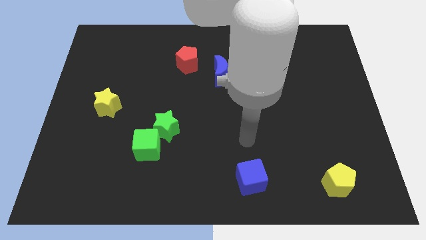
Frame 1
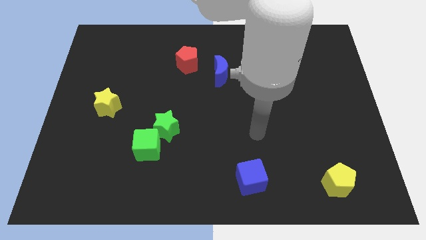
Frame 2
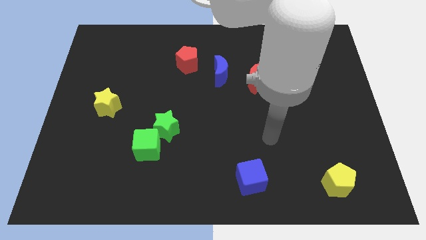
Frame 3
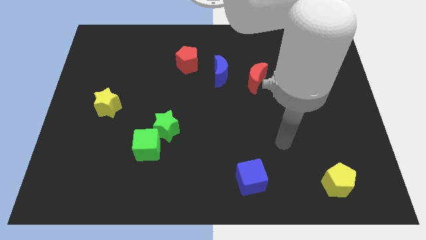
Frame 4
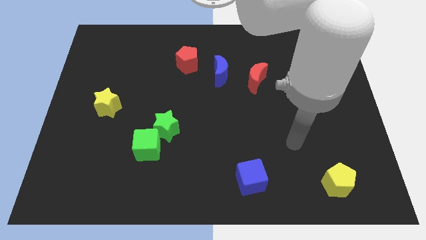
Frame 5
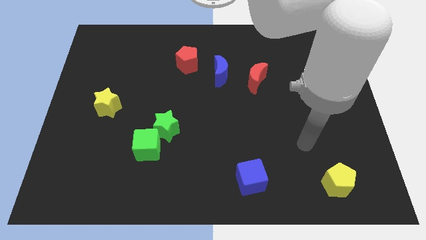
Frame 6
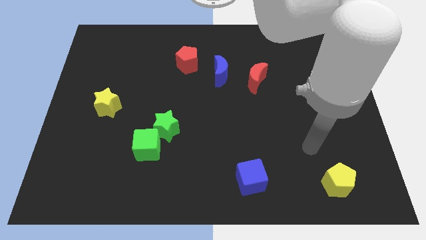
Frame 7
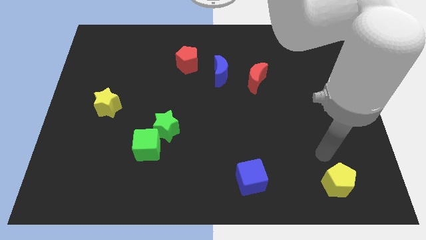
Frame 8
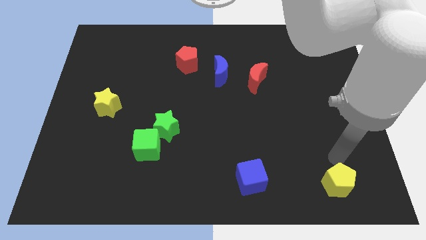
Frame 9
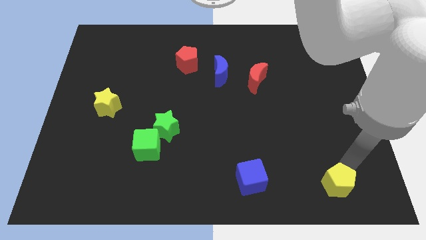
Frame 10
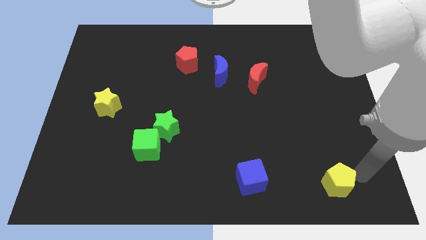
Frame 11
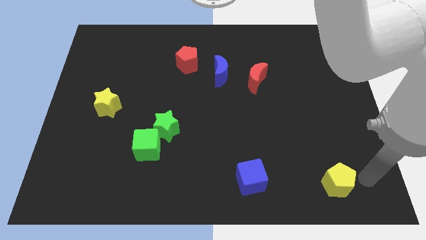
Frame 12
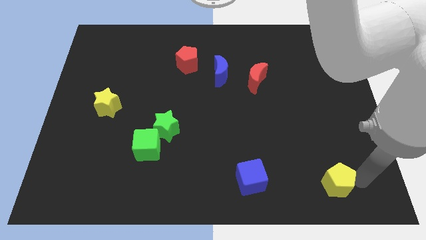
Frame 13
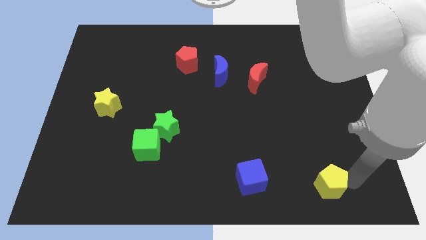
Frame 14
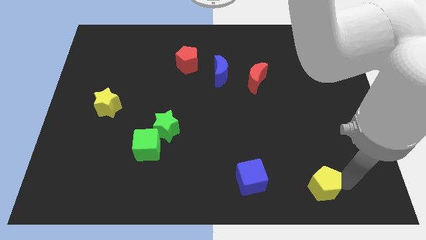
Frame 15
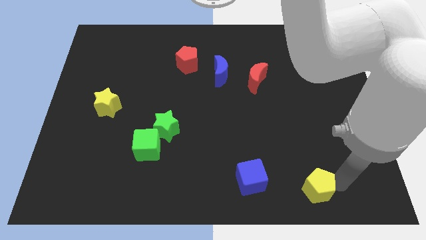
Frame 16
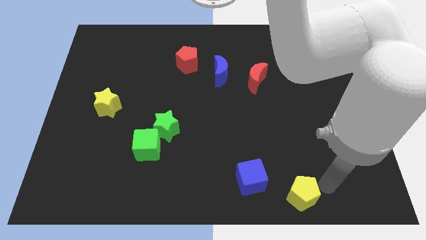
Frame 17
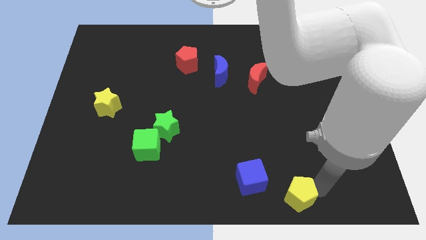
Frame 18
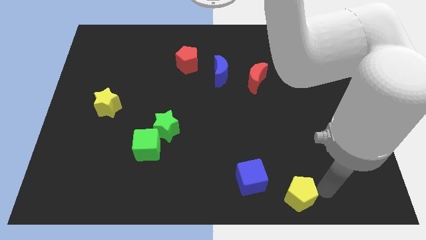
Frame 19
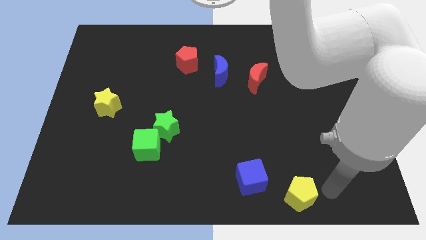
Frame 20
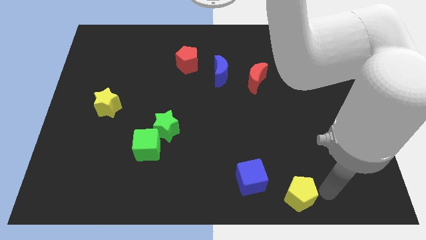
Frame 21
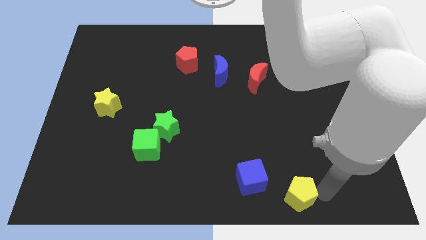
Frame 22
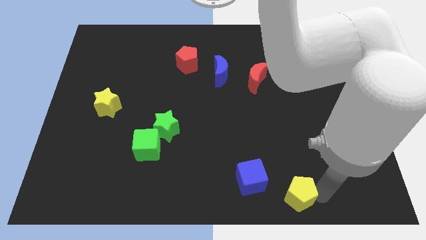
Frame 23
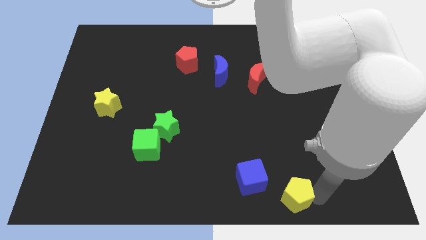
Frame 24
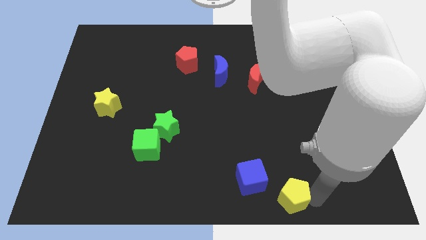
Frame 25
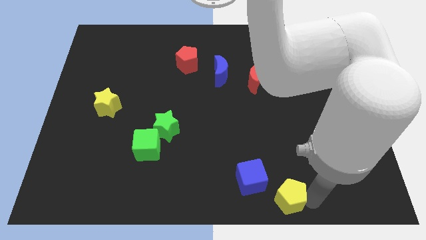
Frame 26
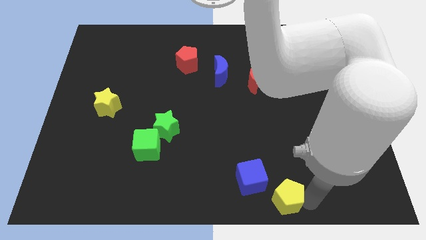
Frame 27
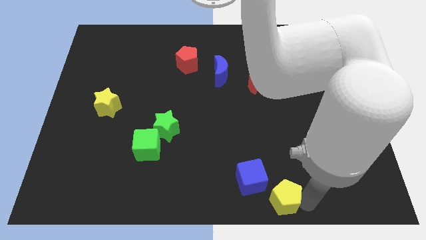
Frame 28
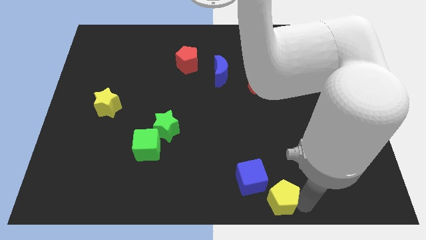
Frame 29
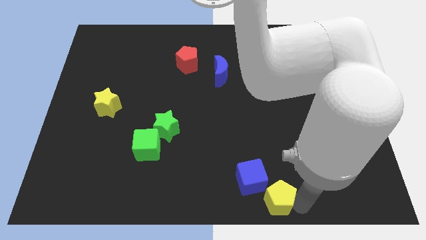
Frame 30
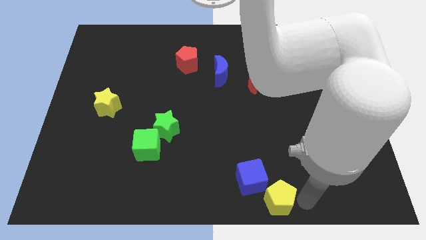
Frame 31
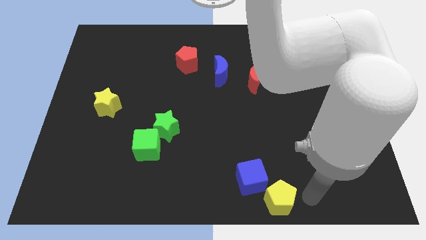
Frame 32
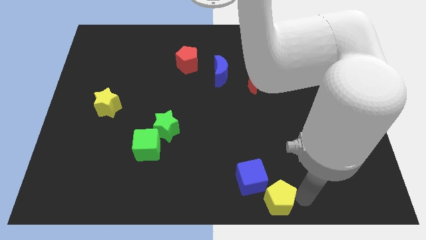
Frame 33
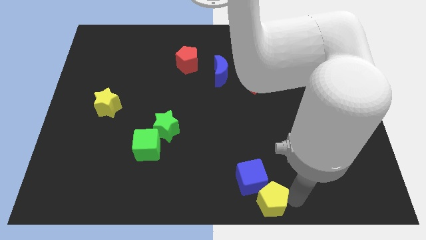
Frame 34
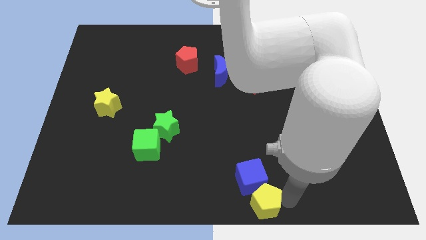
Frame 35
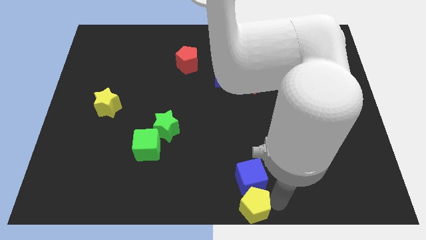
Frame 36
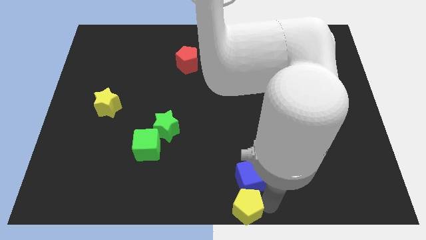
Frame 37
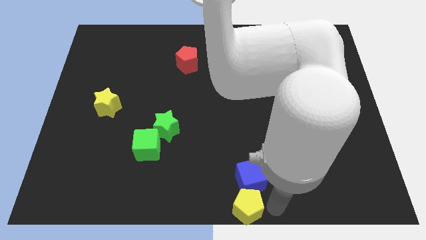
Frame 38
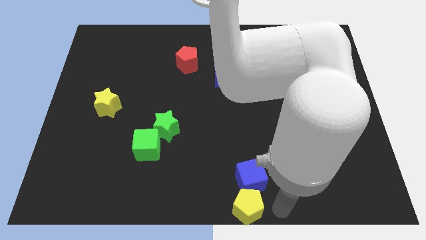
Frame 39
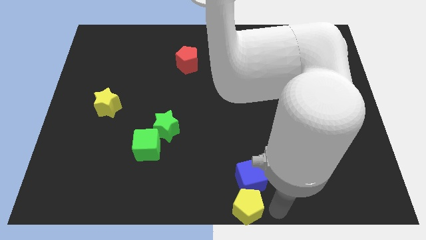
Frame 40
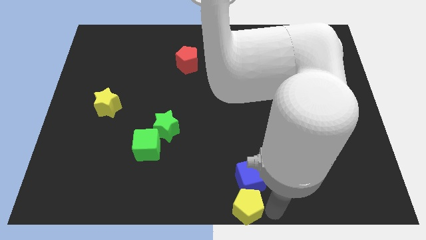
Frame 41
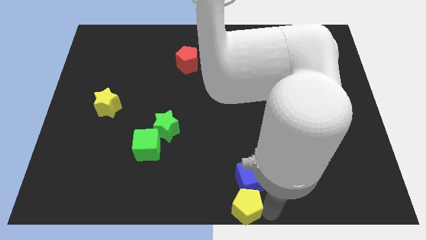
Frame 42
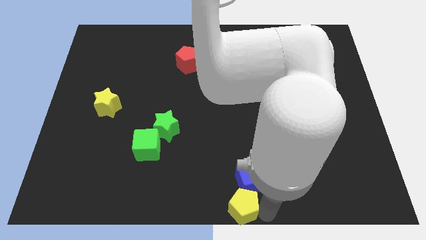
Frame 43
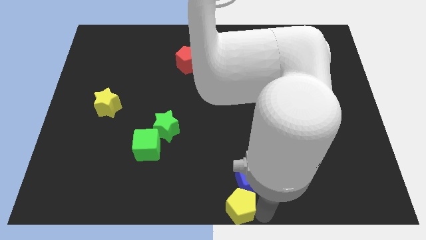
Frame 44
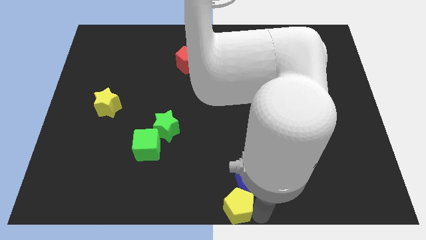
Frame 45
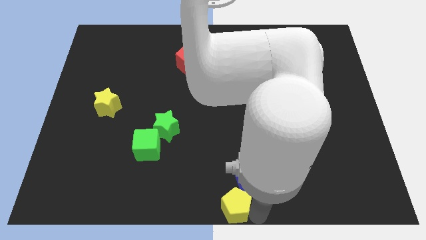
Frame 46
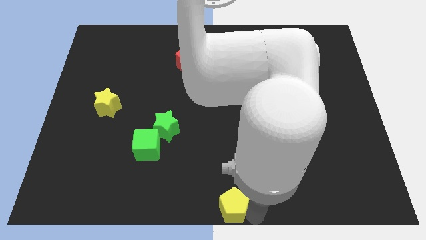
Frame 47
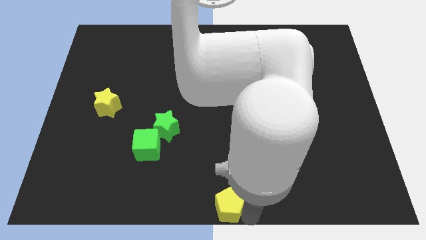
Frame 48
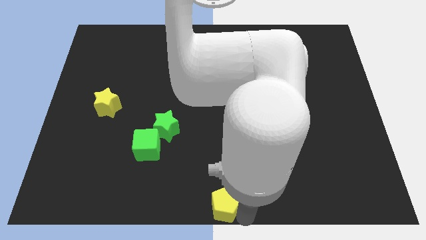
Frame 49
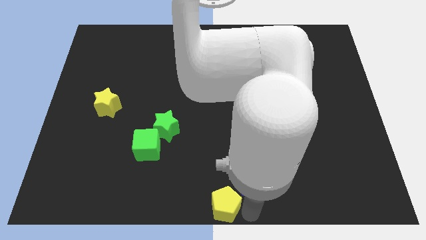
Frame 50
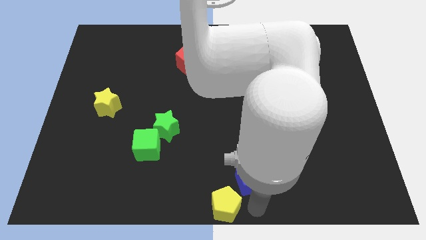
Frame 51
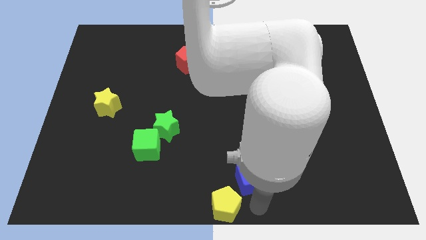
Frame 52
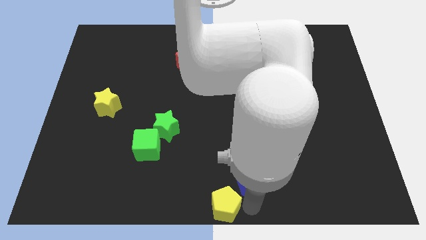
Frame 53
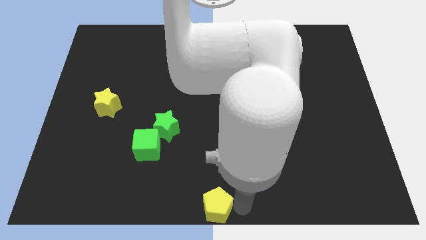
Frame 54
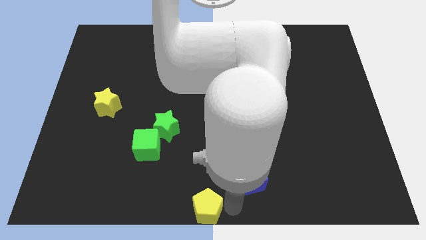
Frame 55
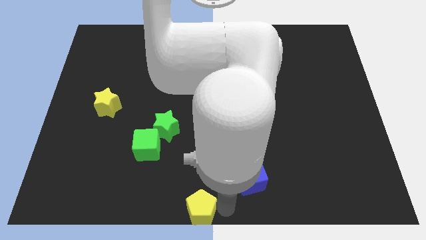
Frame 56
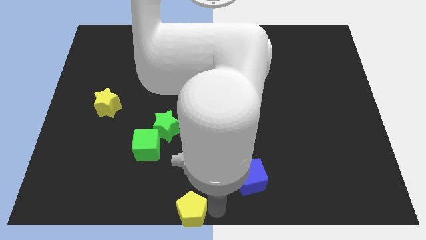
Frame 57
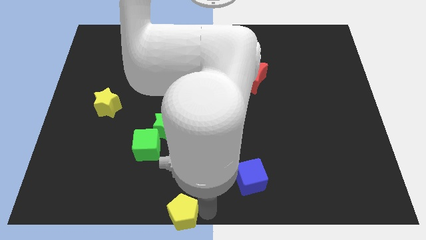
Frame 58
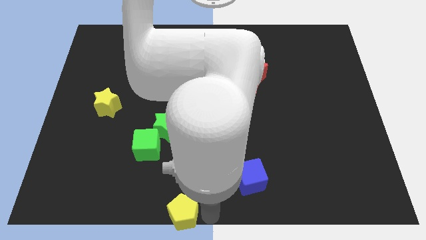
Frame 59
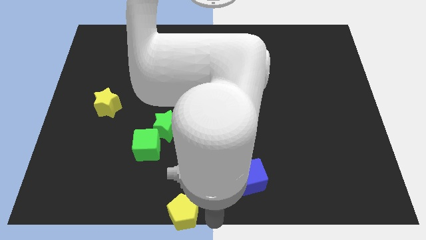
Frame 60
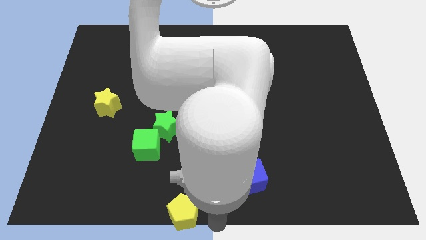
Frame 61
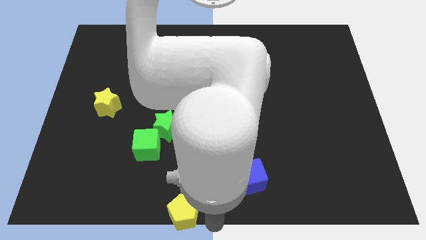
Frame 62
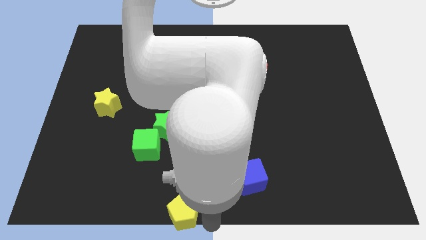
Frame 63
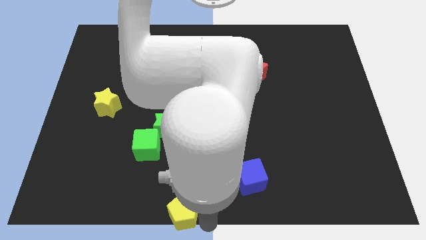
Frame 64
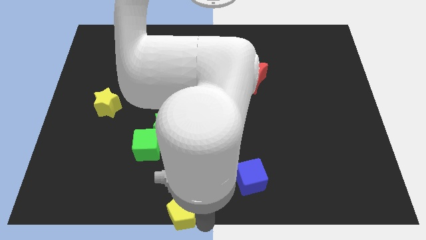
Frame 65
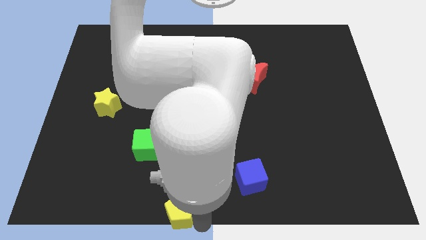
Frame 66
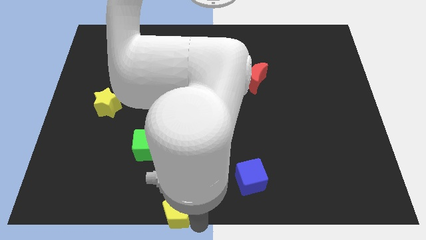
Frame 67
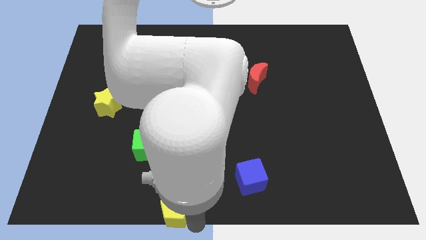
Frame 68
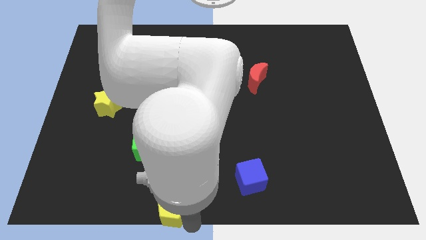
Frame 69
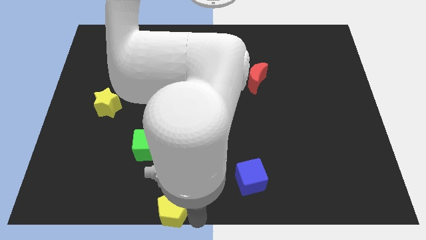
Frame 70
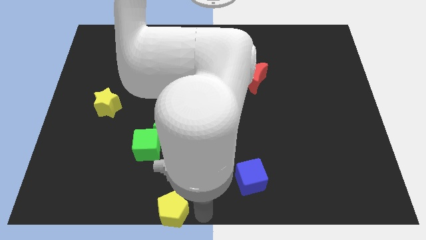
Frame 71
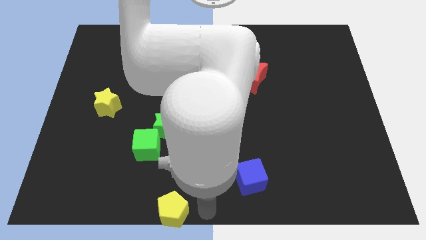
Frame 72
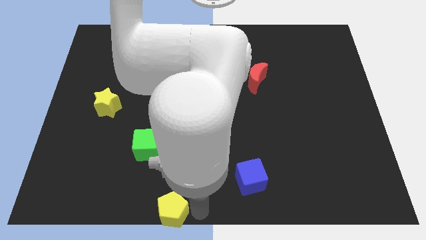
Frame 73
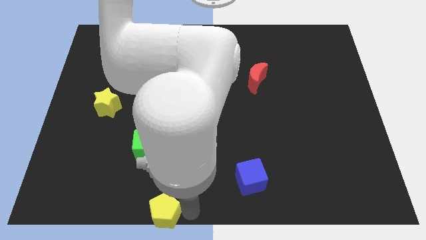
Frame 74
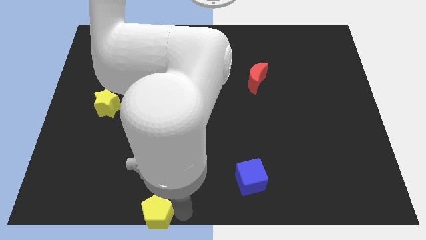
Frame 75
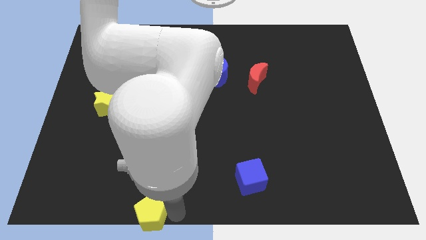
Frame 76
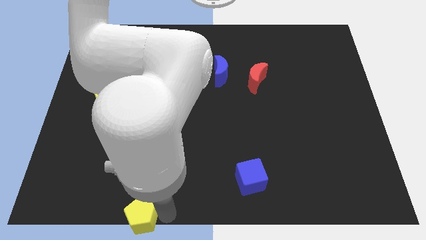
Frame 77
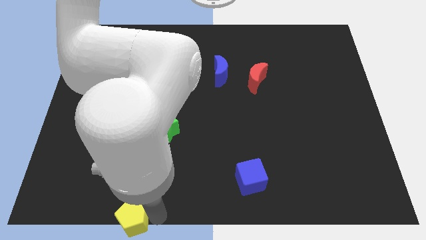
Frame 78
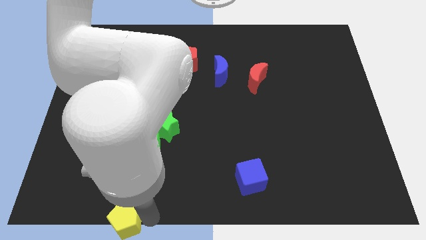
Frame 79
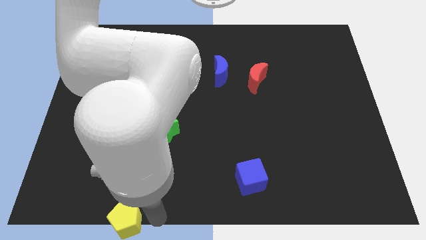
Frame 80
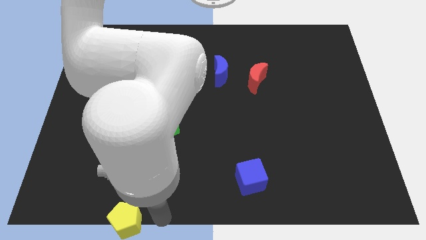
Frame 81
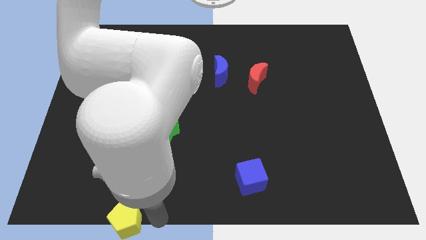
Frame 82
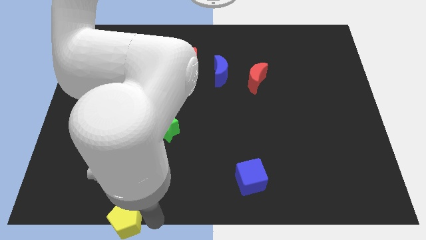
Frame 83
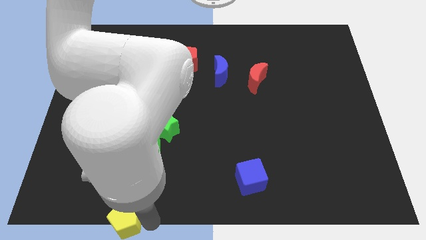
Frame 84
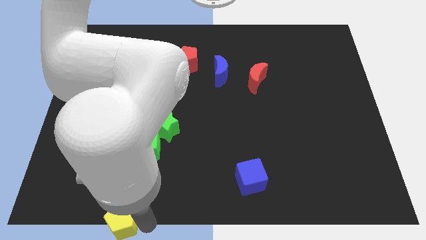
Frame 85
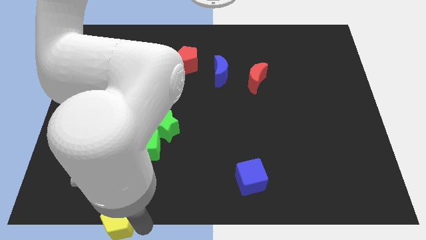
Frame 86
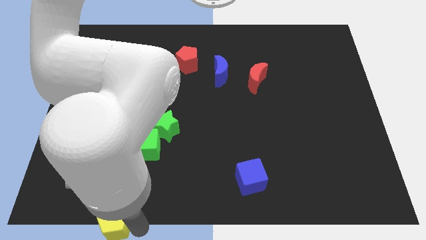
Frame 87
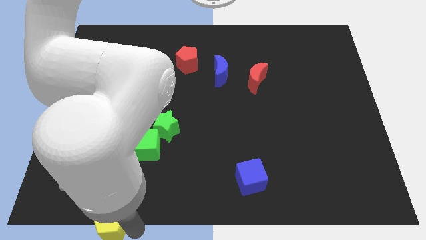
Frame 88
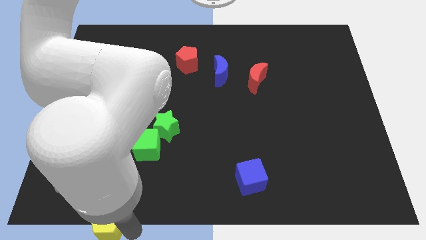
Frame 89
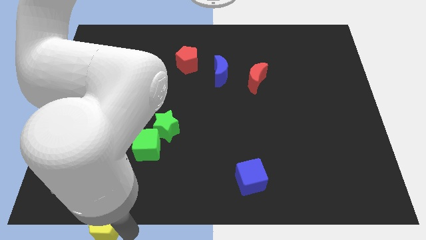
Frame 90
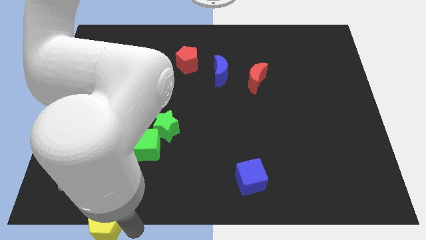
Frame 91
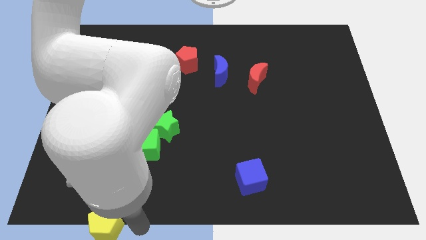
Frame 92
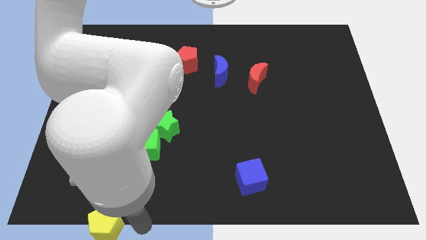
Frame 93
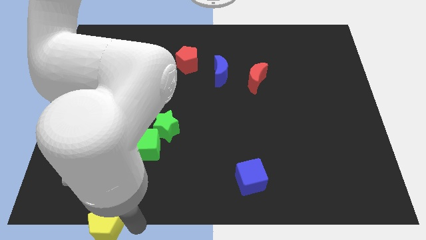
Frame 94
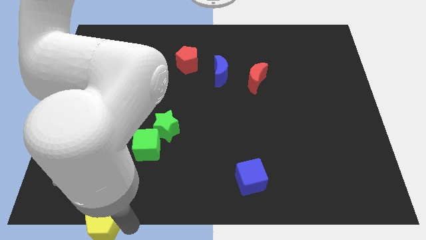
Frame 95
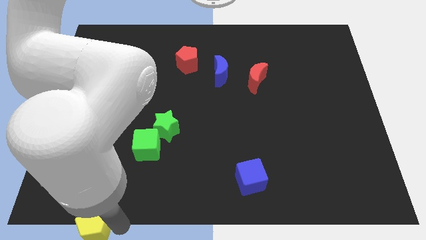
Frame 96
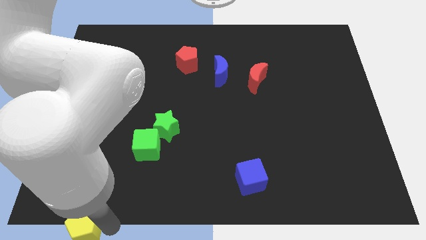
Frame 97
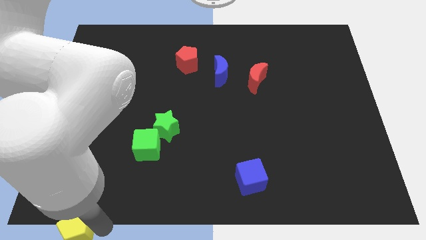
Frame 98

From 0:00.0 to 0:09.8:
slide the yellow pentagon to the lower left corner
